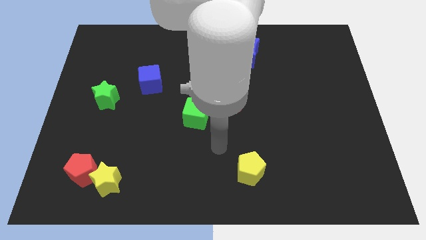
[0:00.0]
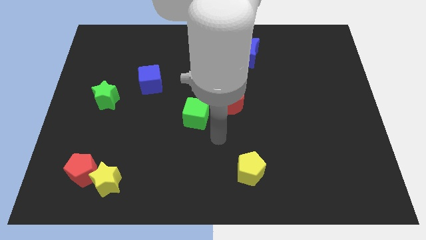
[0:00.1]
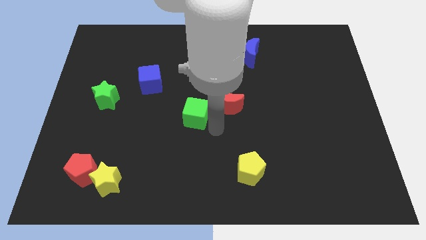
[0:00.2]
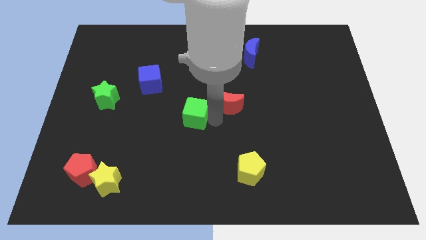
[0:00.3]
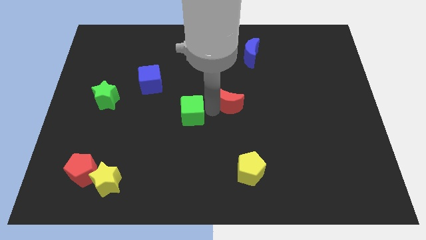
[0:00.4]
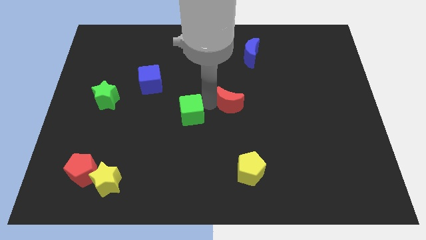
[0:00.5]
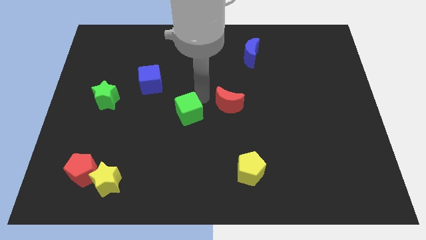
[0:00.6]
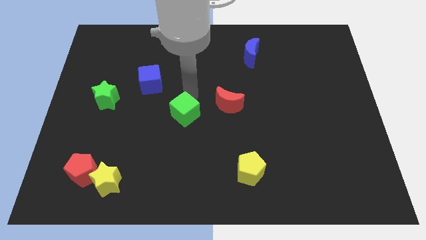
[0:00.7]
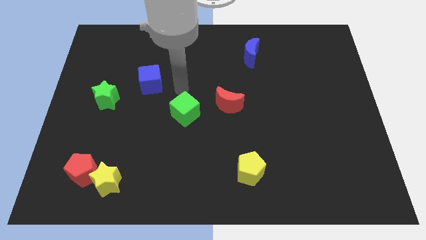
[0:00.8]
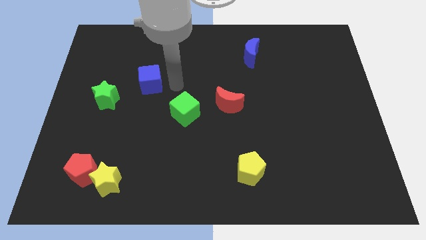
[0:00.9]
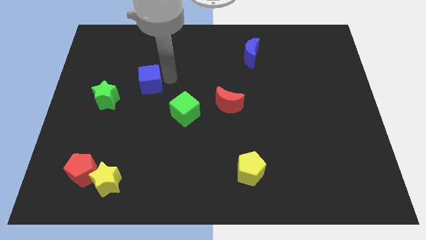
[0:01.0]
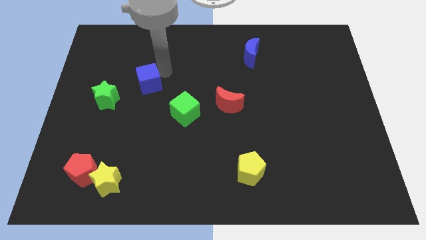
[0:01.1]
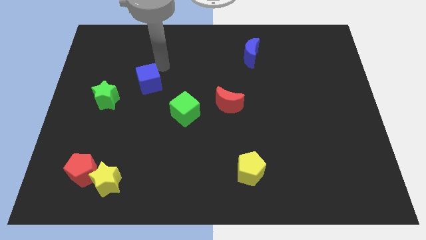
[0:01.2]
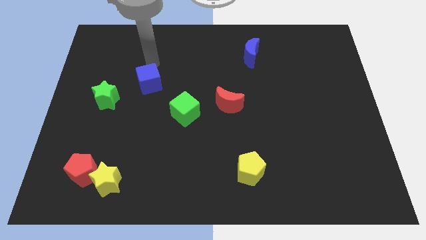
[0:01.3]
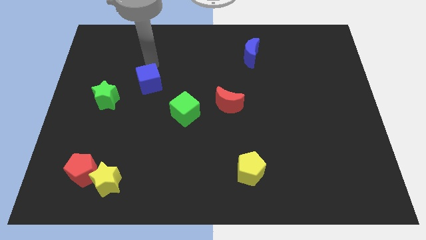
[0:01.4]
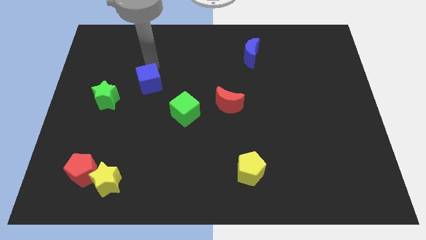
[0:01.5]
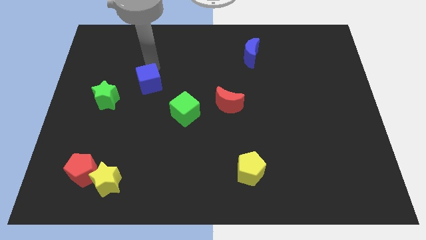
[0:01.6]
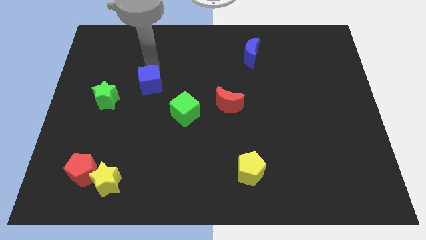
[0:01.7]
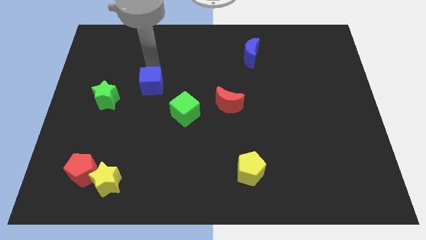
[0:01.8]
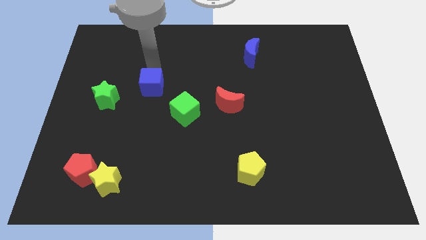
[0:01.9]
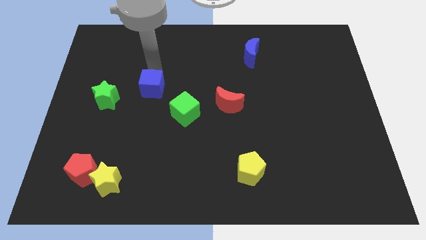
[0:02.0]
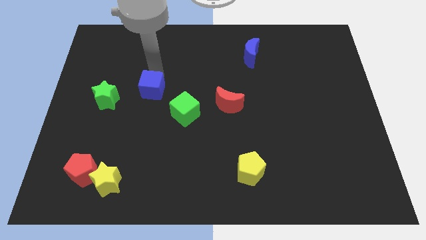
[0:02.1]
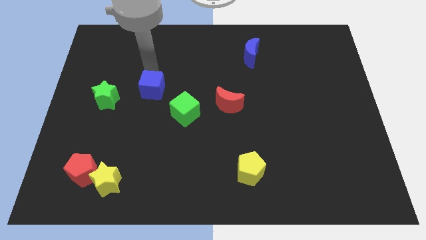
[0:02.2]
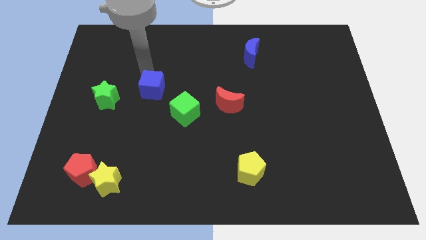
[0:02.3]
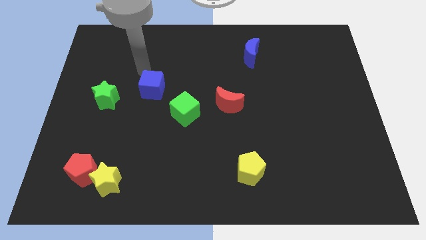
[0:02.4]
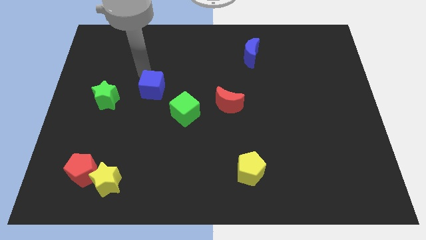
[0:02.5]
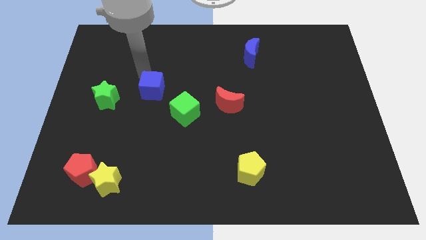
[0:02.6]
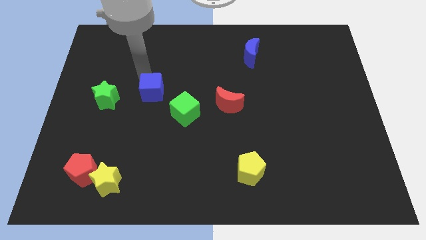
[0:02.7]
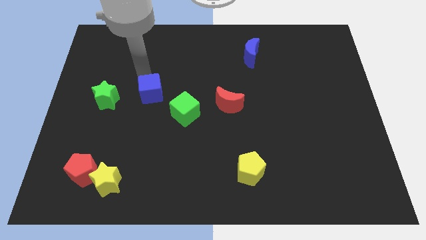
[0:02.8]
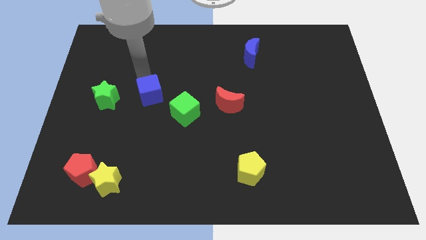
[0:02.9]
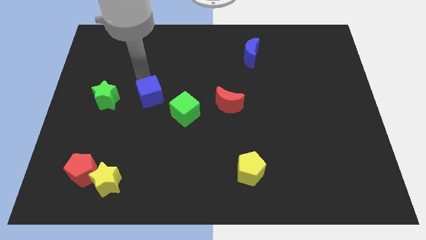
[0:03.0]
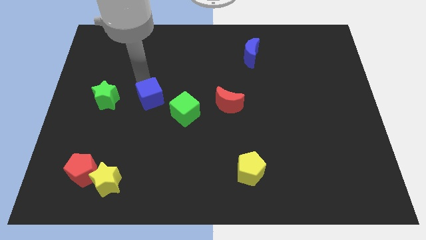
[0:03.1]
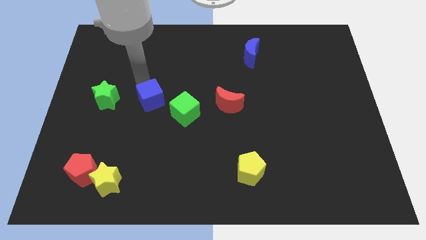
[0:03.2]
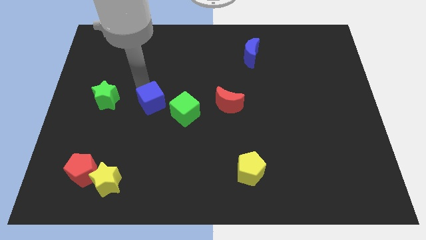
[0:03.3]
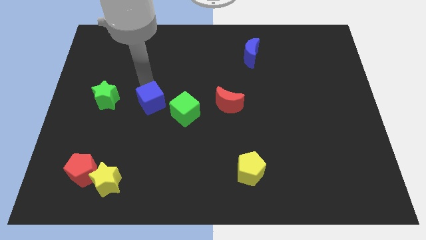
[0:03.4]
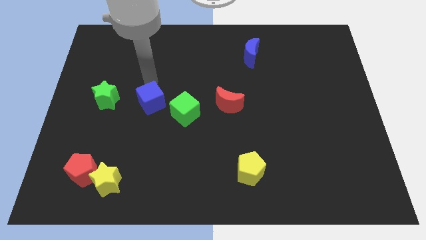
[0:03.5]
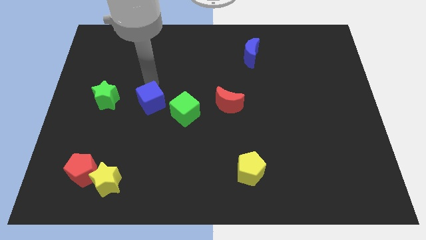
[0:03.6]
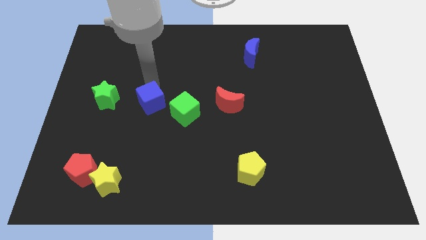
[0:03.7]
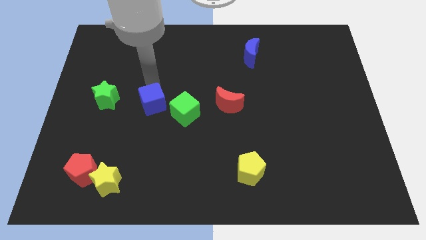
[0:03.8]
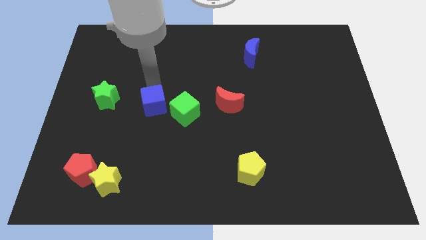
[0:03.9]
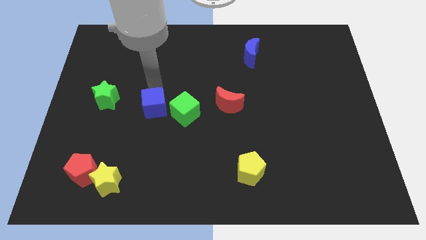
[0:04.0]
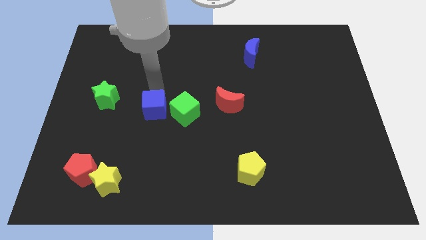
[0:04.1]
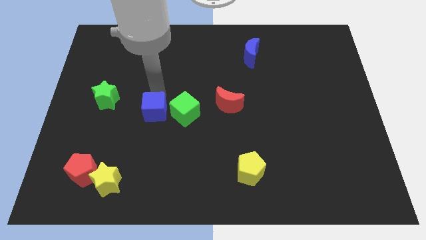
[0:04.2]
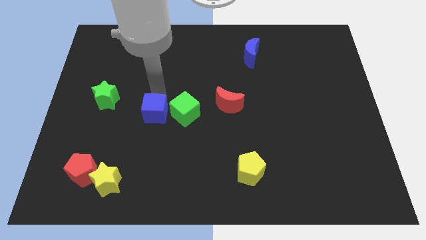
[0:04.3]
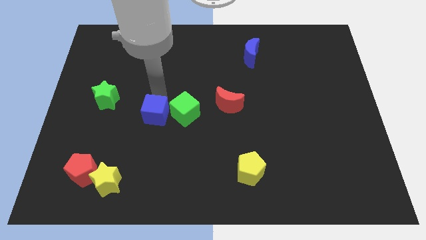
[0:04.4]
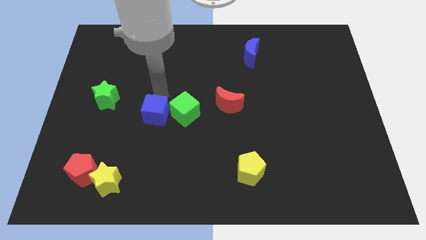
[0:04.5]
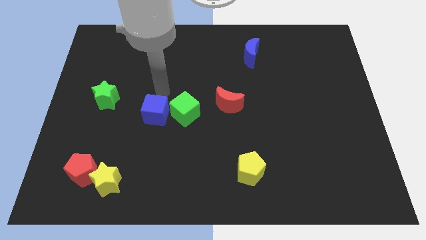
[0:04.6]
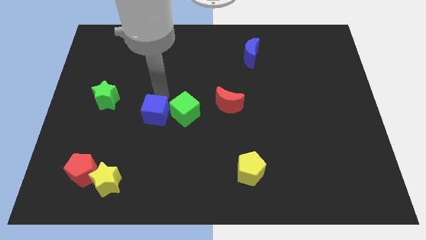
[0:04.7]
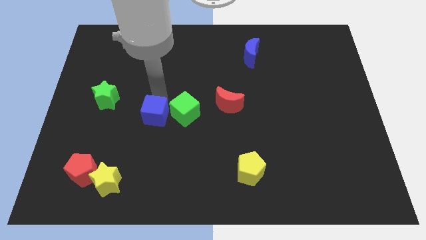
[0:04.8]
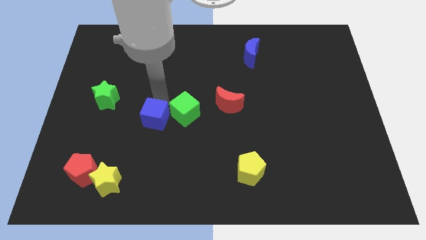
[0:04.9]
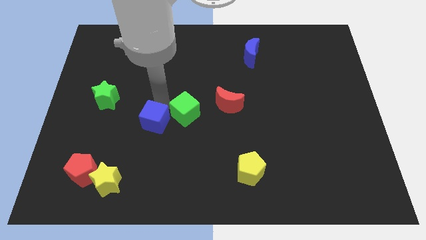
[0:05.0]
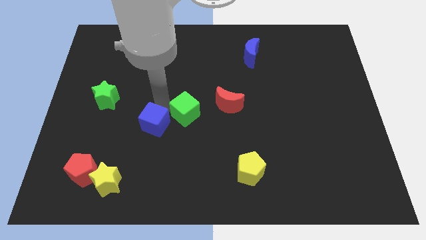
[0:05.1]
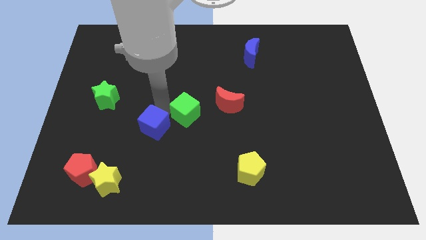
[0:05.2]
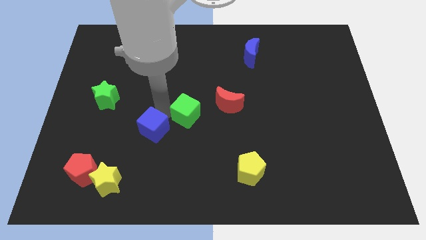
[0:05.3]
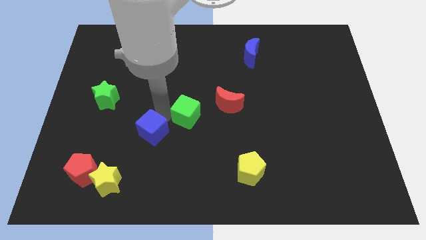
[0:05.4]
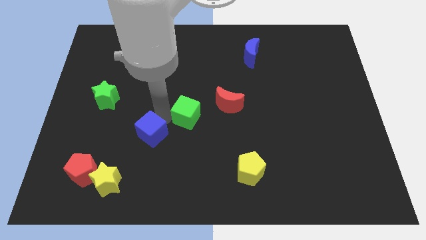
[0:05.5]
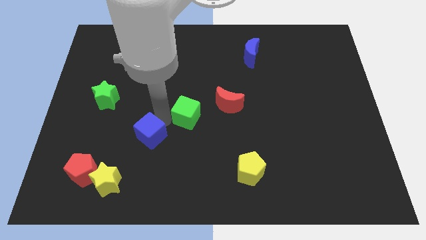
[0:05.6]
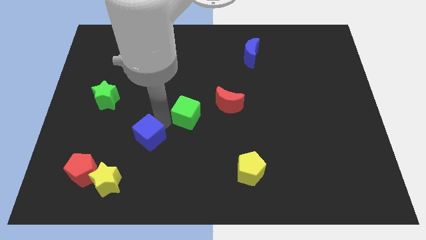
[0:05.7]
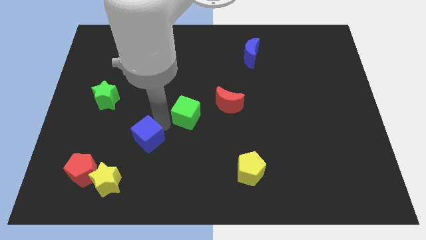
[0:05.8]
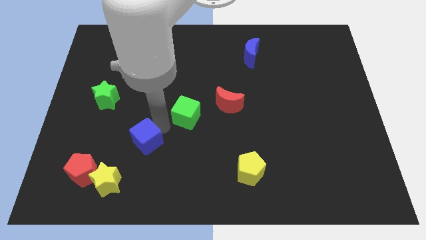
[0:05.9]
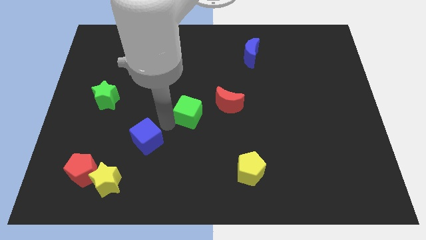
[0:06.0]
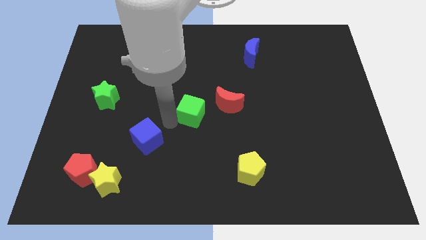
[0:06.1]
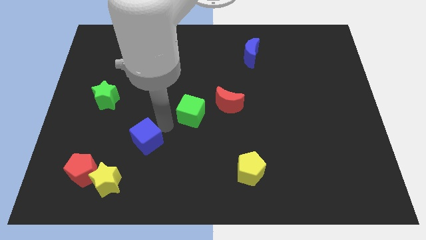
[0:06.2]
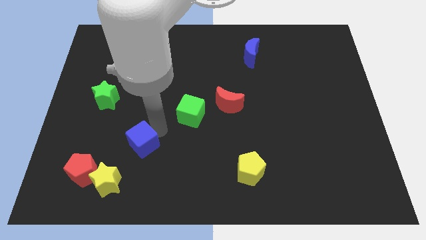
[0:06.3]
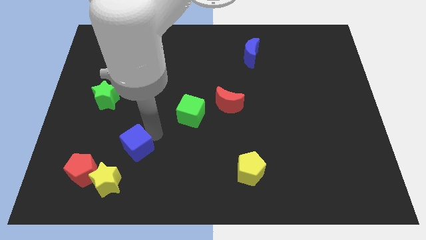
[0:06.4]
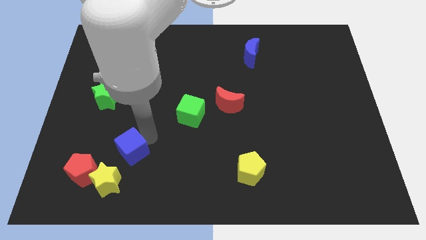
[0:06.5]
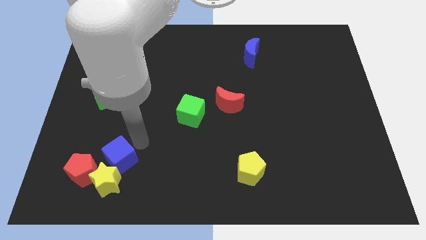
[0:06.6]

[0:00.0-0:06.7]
put the blue cube next to the yellow star

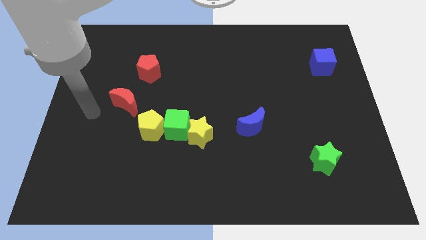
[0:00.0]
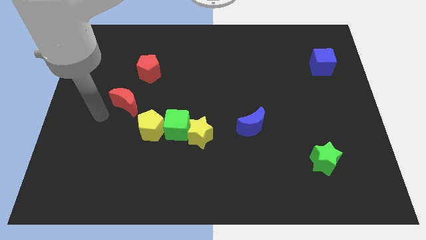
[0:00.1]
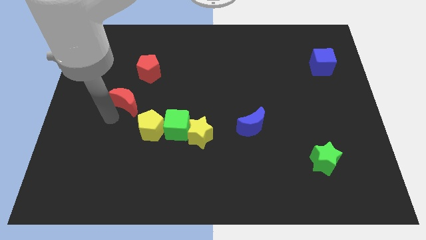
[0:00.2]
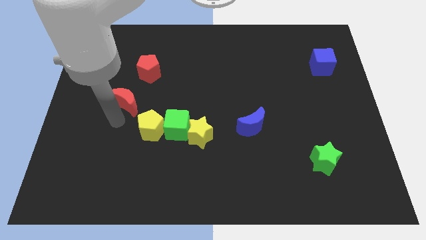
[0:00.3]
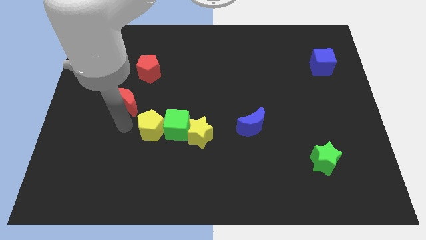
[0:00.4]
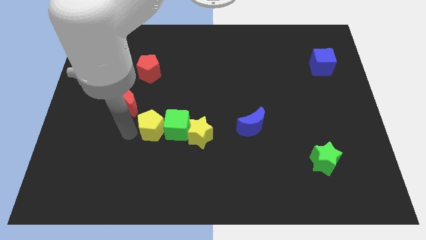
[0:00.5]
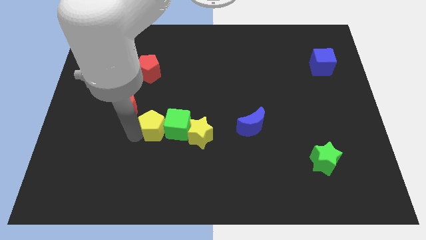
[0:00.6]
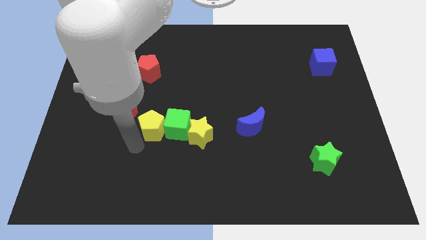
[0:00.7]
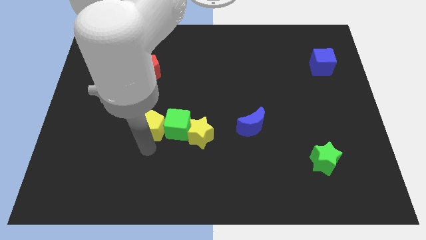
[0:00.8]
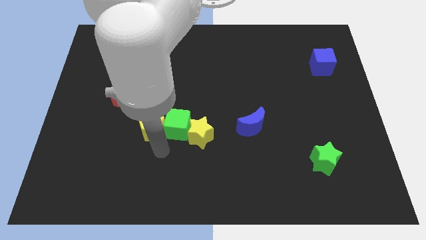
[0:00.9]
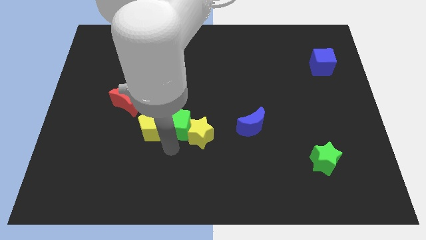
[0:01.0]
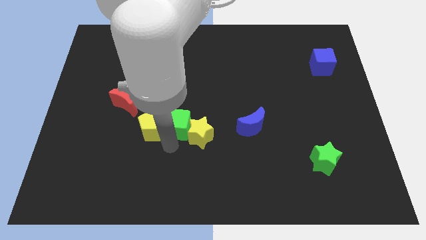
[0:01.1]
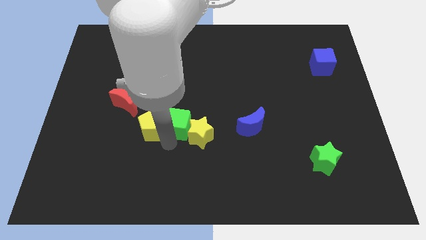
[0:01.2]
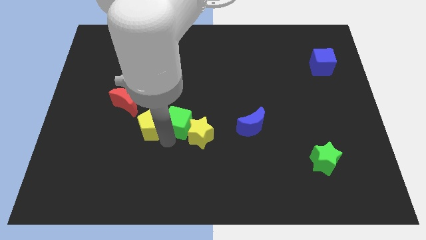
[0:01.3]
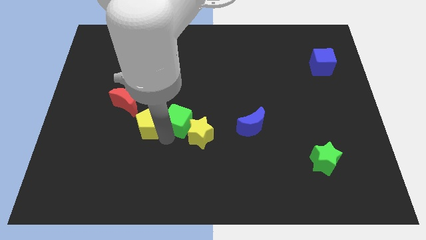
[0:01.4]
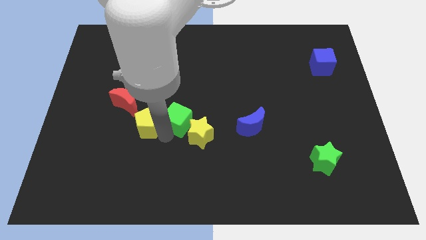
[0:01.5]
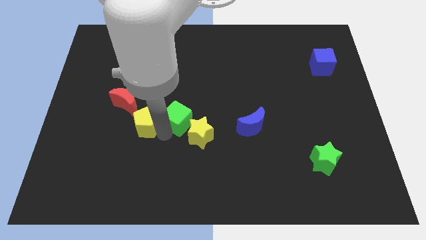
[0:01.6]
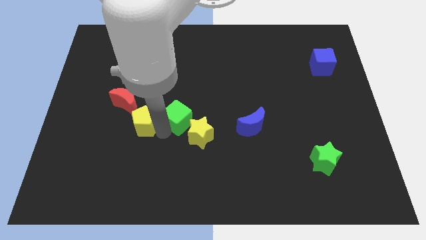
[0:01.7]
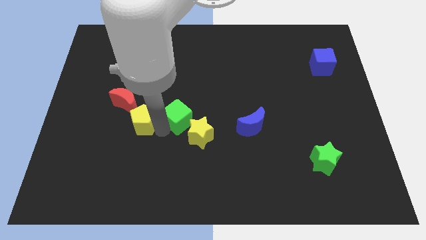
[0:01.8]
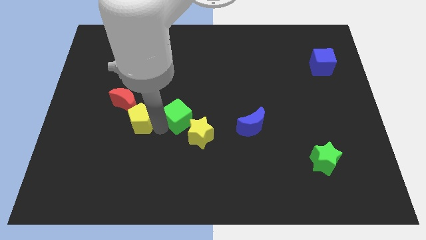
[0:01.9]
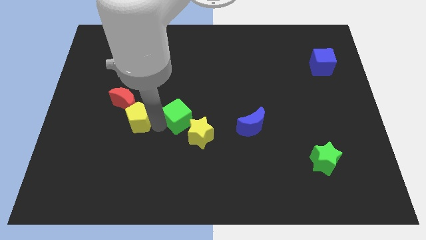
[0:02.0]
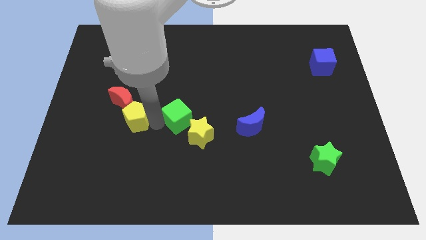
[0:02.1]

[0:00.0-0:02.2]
push the yellow pentagon towards the red moon
